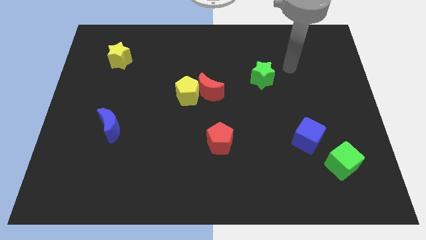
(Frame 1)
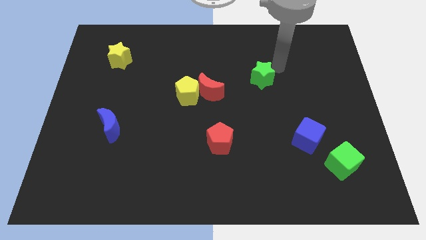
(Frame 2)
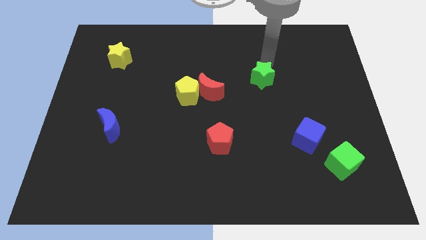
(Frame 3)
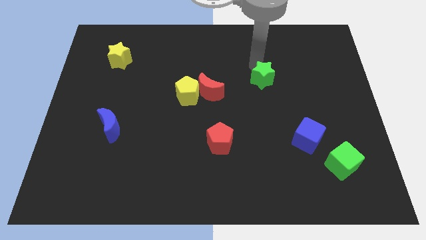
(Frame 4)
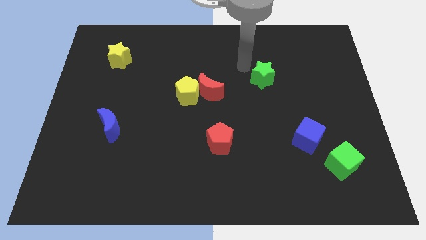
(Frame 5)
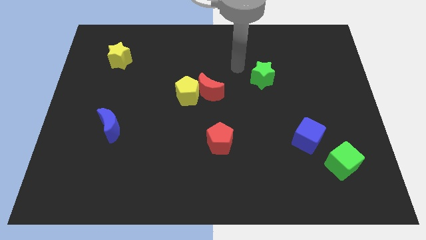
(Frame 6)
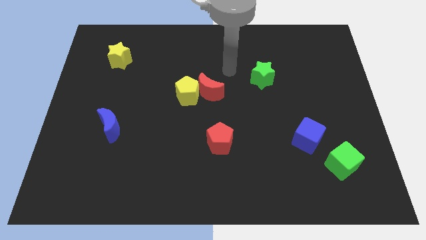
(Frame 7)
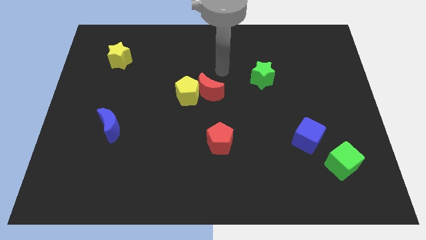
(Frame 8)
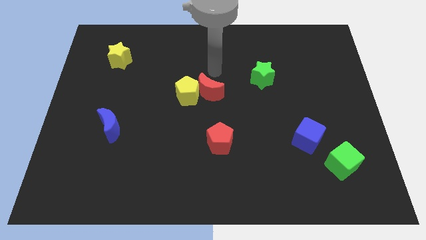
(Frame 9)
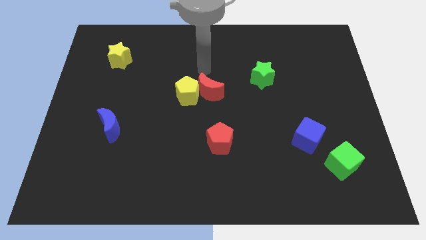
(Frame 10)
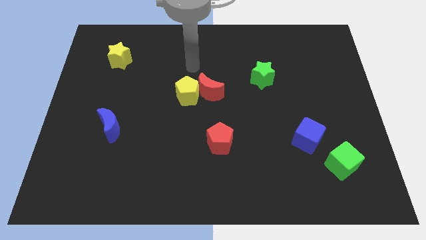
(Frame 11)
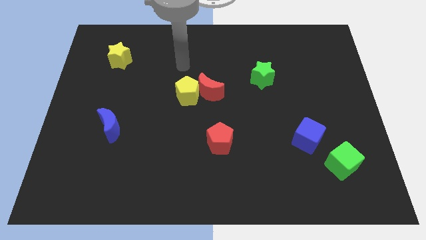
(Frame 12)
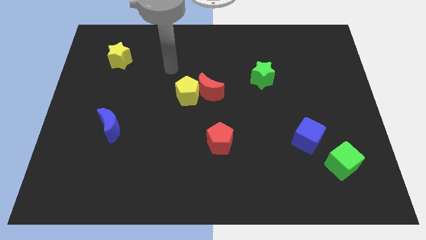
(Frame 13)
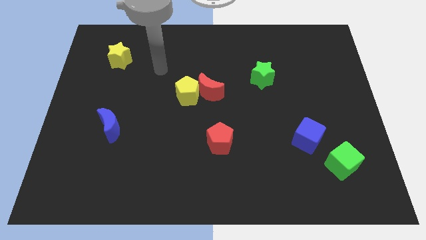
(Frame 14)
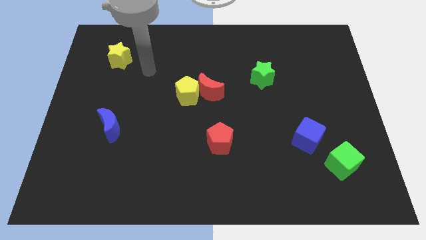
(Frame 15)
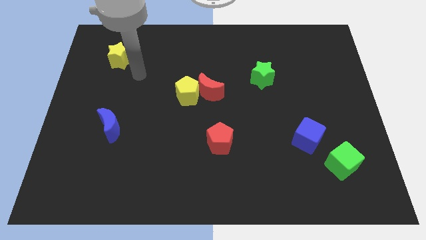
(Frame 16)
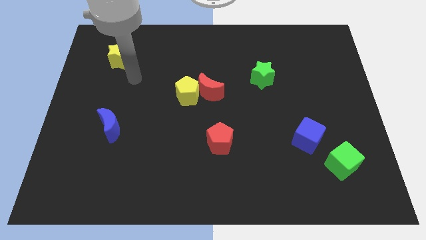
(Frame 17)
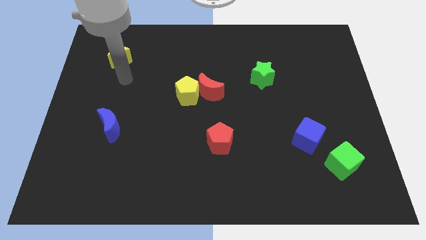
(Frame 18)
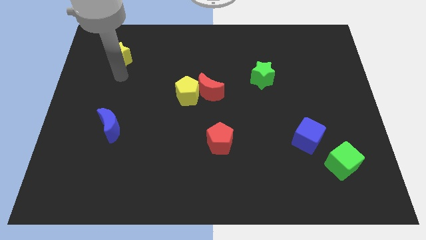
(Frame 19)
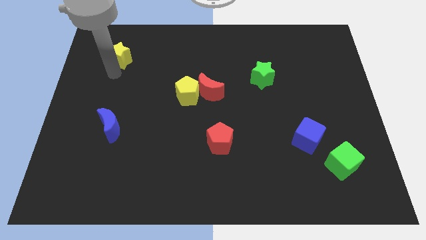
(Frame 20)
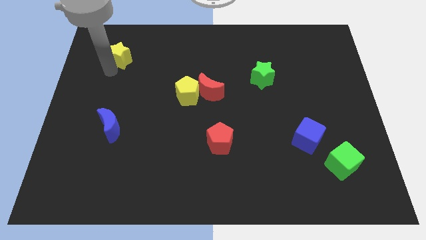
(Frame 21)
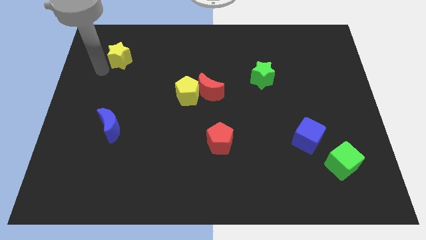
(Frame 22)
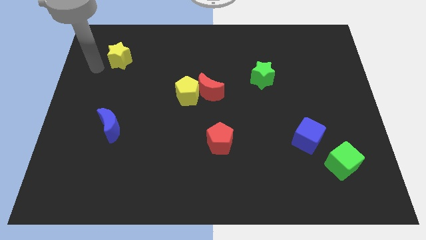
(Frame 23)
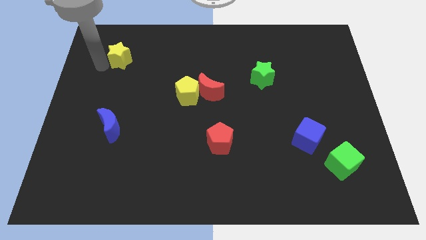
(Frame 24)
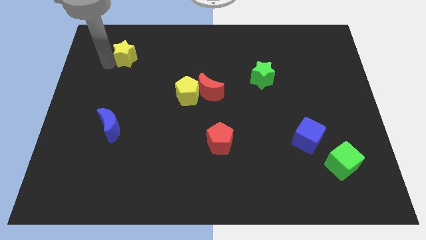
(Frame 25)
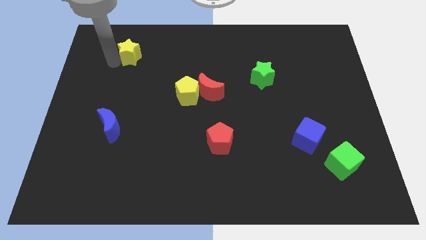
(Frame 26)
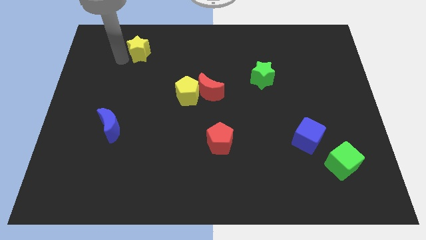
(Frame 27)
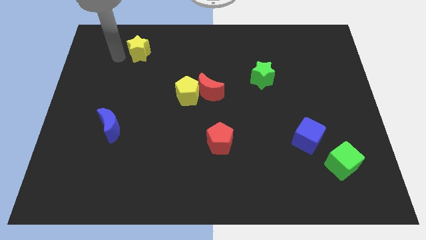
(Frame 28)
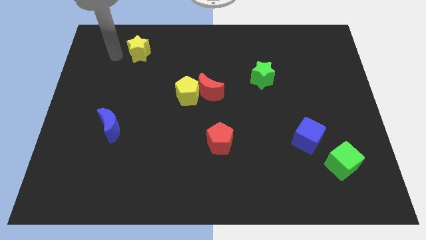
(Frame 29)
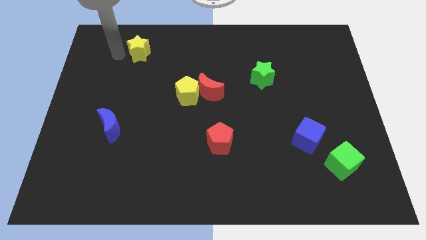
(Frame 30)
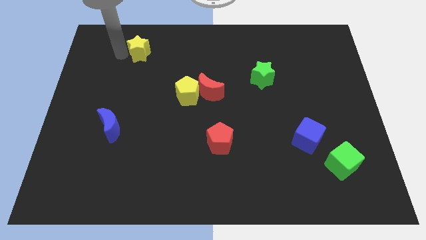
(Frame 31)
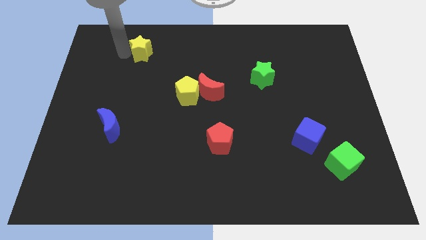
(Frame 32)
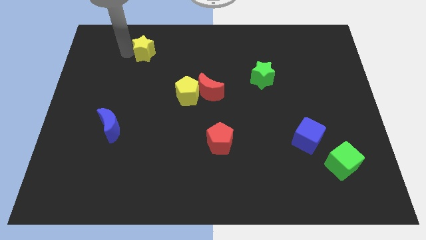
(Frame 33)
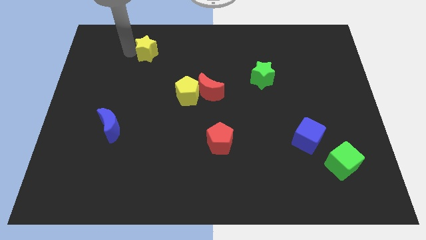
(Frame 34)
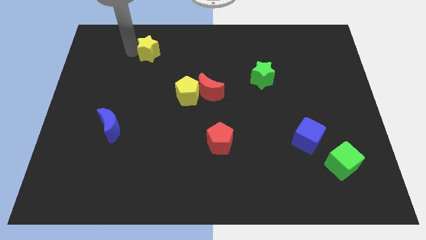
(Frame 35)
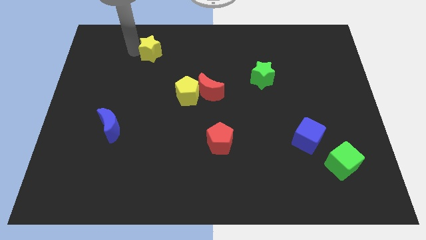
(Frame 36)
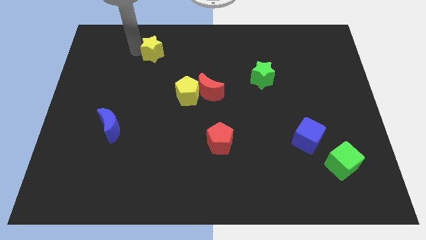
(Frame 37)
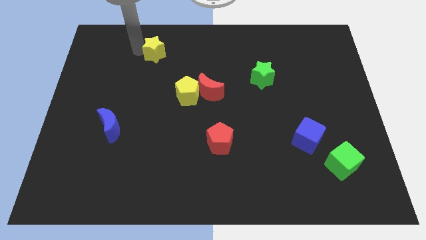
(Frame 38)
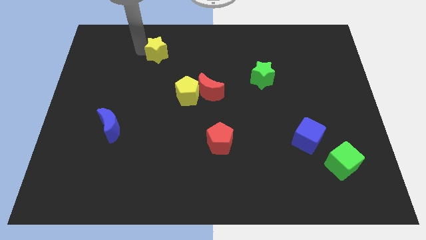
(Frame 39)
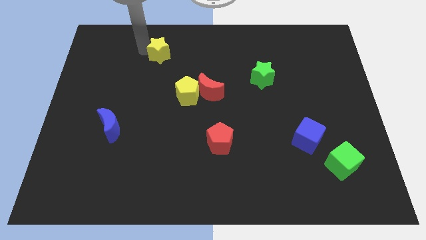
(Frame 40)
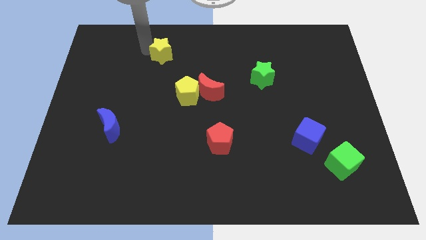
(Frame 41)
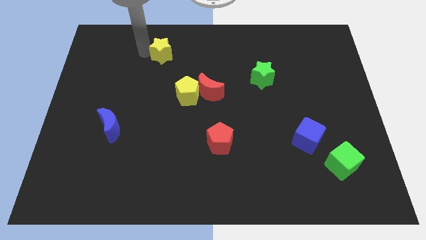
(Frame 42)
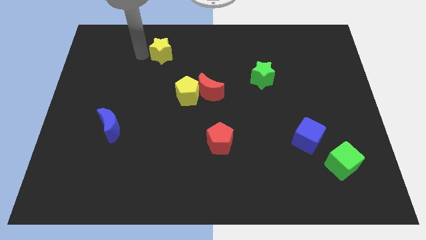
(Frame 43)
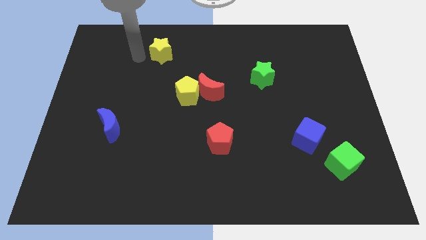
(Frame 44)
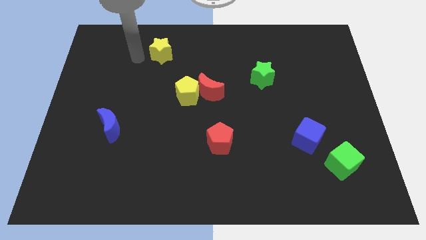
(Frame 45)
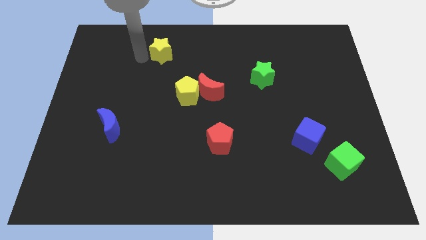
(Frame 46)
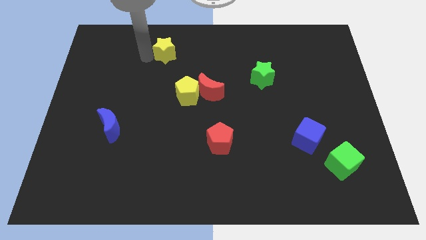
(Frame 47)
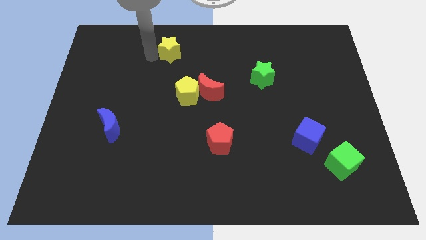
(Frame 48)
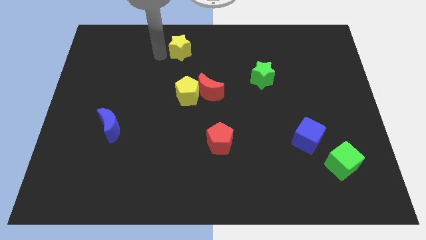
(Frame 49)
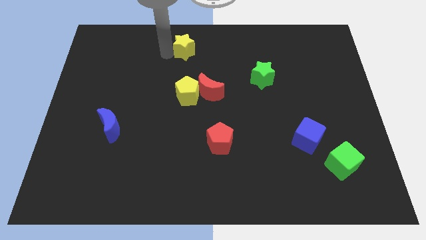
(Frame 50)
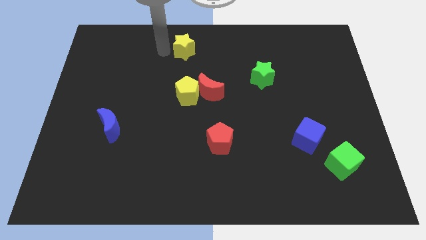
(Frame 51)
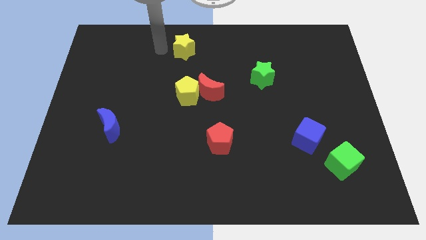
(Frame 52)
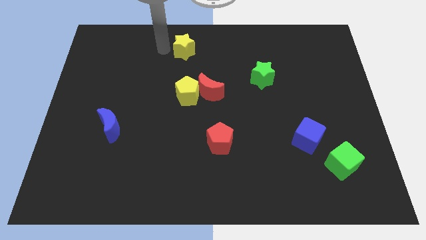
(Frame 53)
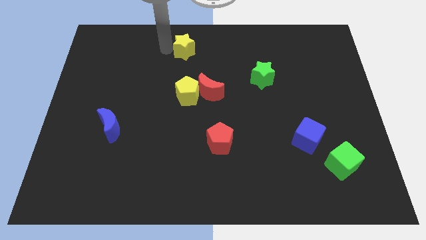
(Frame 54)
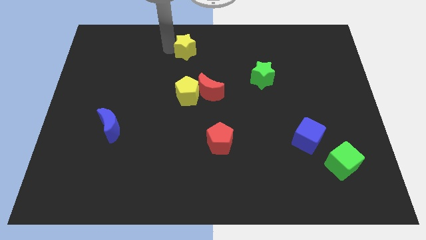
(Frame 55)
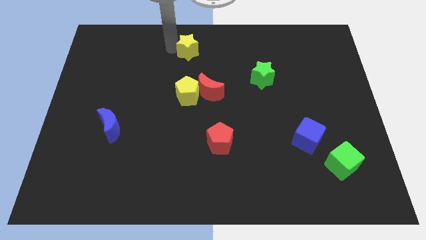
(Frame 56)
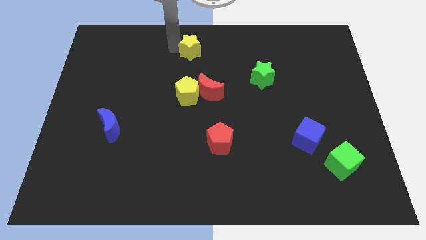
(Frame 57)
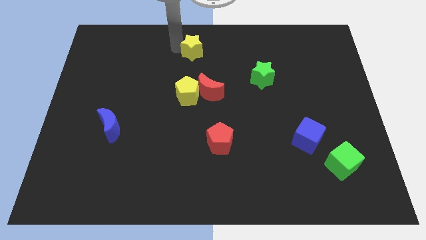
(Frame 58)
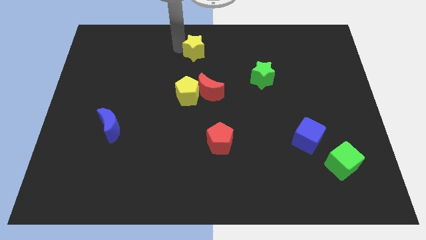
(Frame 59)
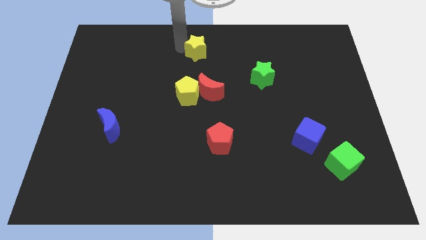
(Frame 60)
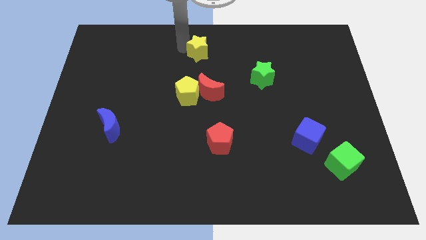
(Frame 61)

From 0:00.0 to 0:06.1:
push the yellow star right

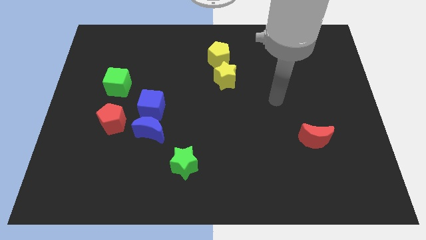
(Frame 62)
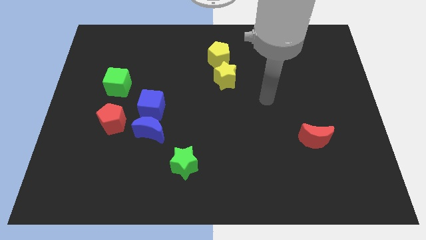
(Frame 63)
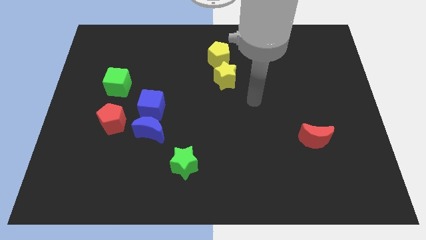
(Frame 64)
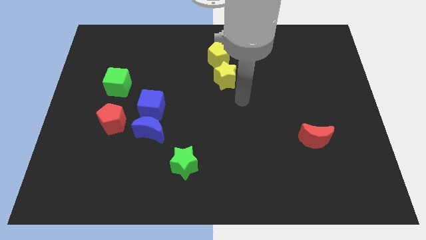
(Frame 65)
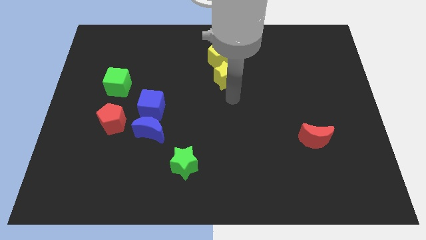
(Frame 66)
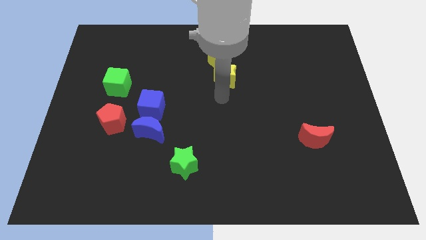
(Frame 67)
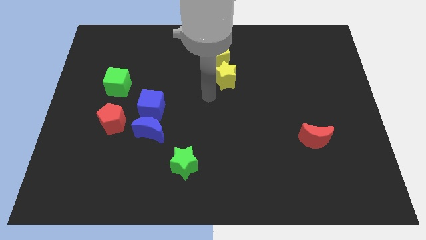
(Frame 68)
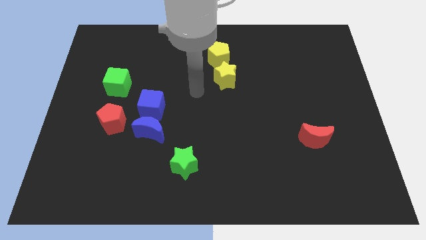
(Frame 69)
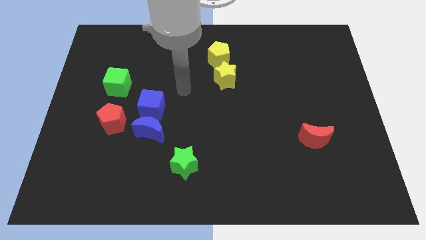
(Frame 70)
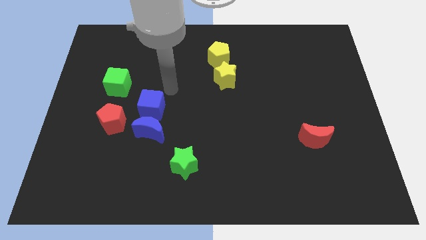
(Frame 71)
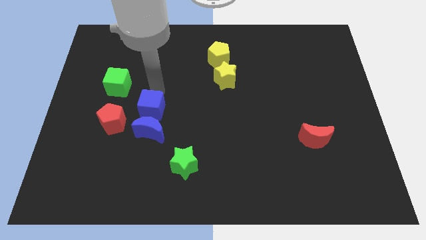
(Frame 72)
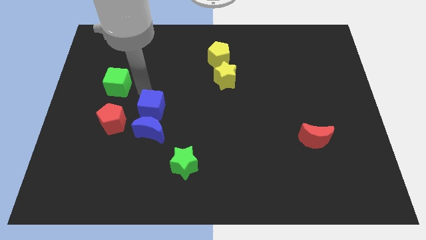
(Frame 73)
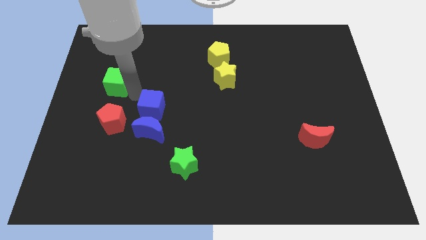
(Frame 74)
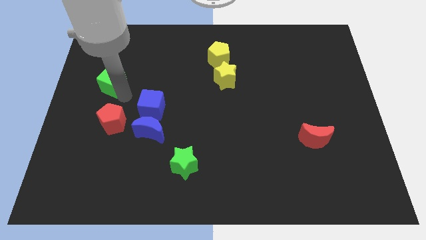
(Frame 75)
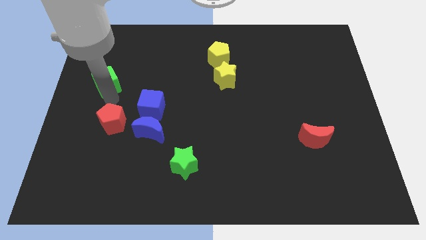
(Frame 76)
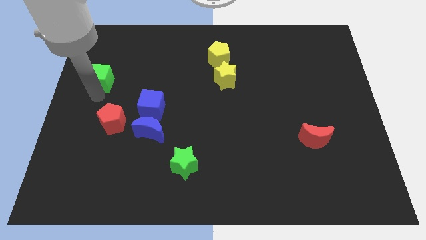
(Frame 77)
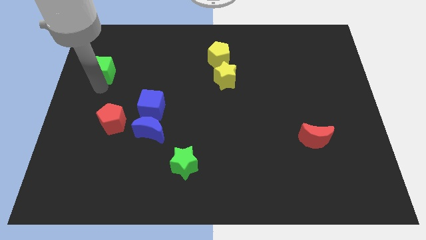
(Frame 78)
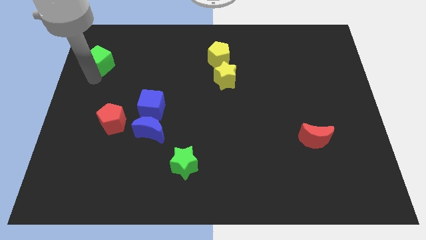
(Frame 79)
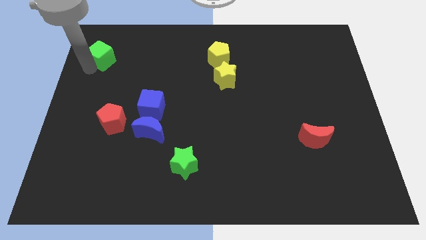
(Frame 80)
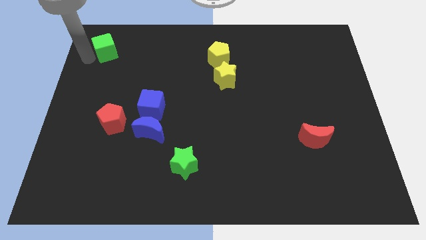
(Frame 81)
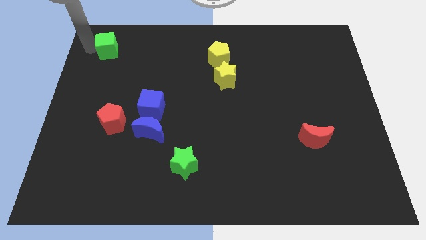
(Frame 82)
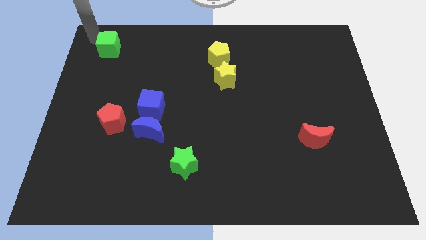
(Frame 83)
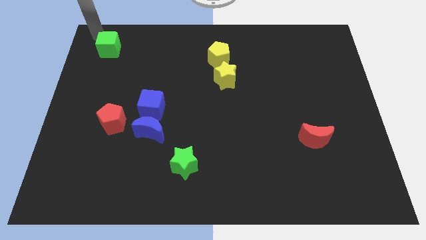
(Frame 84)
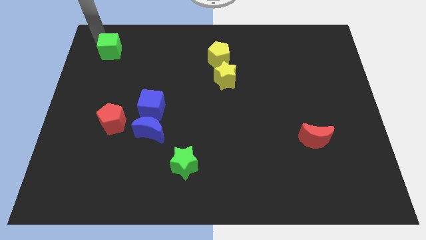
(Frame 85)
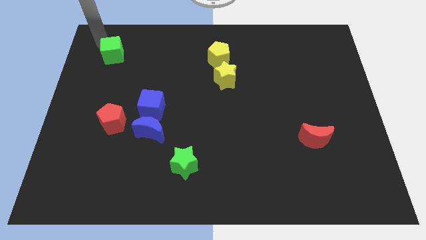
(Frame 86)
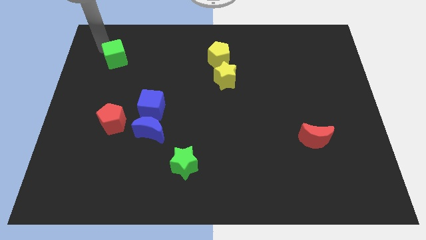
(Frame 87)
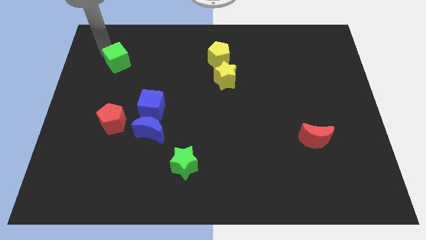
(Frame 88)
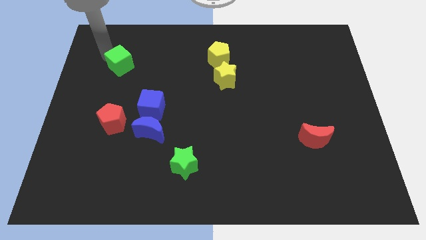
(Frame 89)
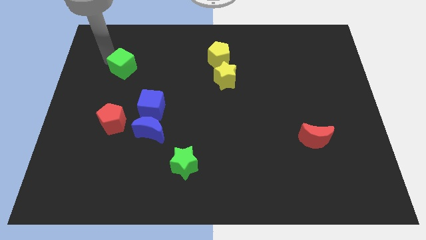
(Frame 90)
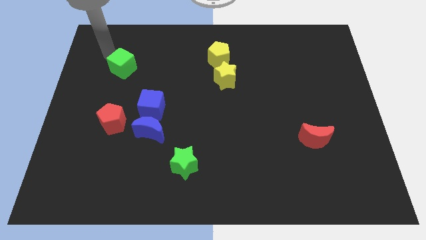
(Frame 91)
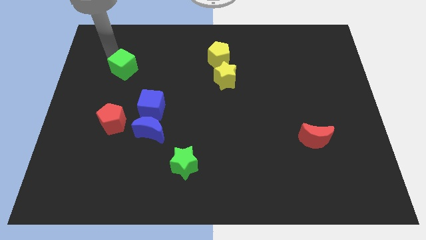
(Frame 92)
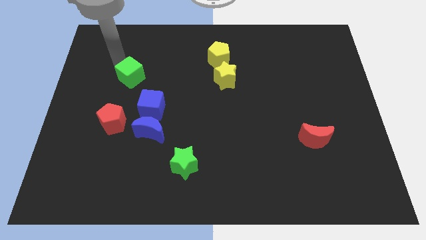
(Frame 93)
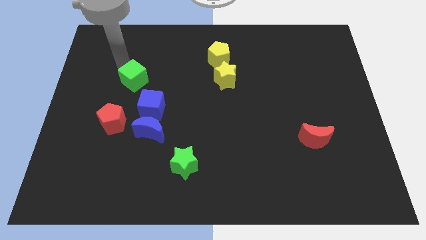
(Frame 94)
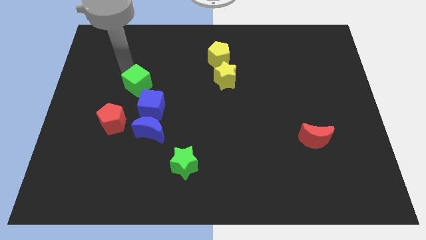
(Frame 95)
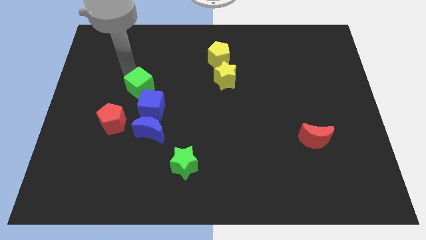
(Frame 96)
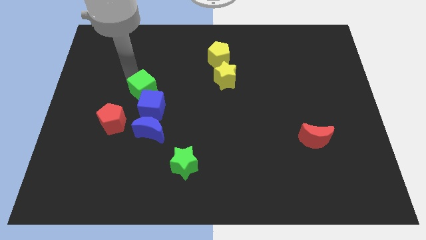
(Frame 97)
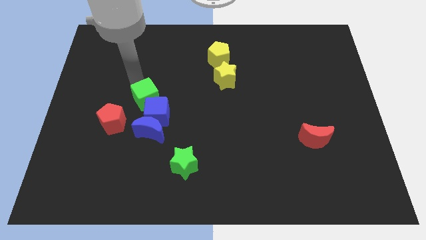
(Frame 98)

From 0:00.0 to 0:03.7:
push the green cube down and to the right slightly
